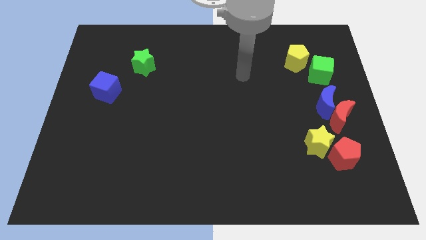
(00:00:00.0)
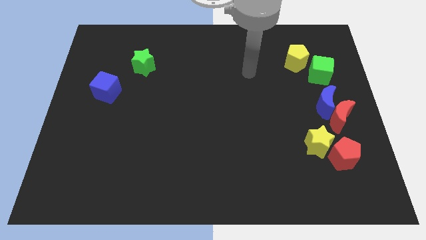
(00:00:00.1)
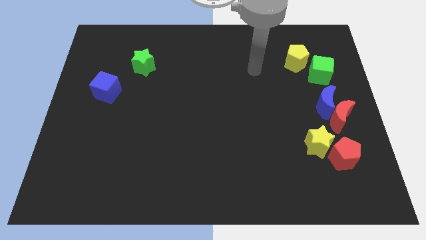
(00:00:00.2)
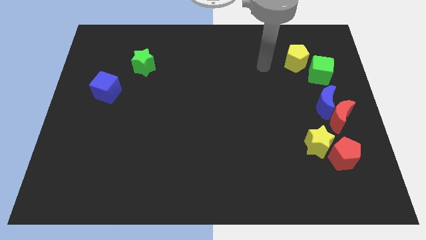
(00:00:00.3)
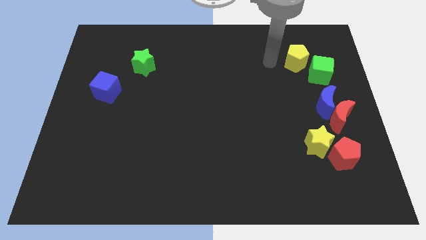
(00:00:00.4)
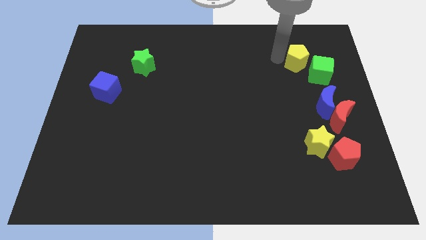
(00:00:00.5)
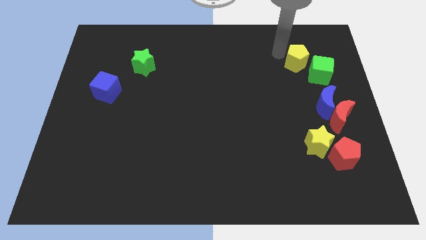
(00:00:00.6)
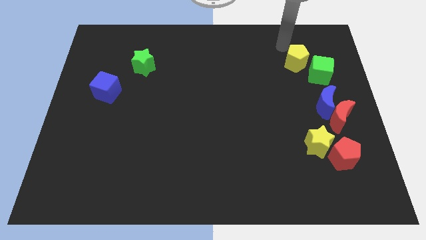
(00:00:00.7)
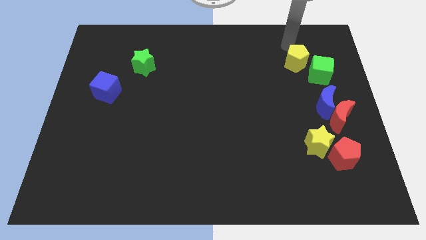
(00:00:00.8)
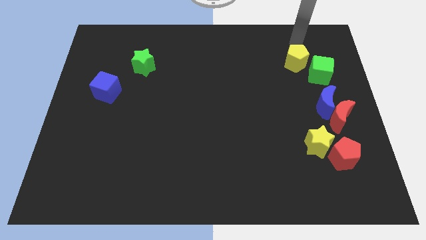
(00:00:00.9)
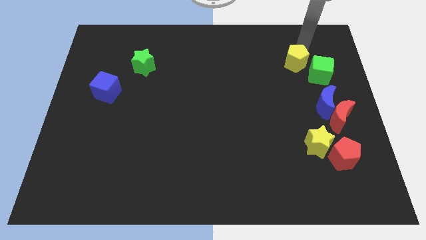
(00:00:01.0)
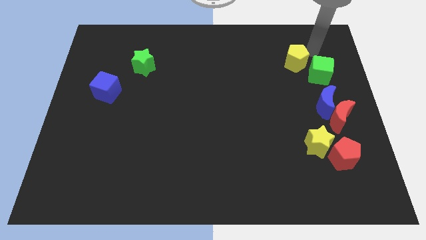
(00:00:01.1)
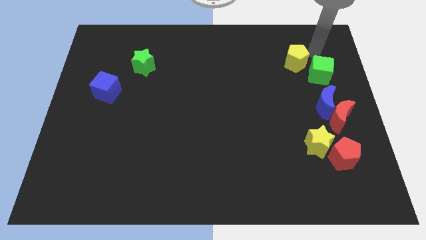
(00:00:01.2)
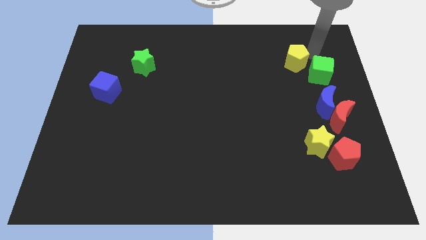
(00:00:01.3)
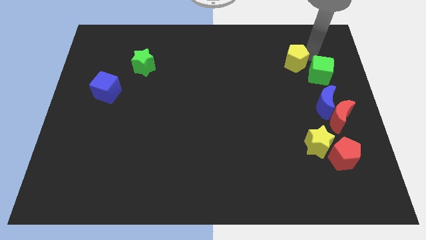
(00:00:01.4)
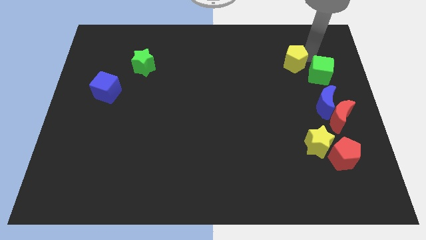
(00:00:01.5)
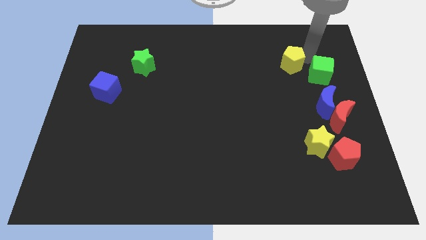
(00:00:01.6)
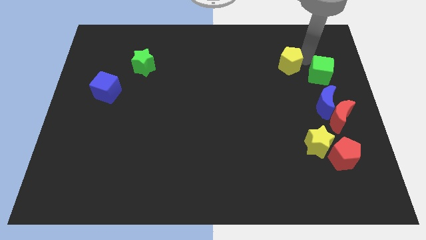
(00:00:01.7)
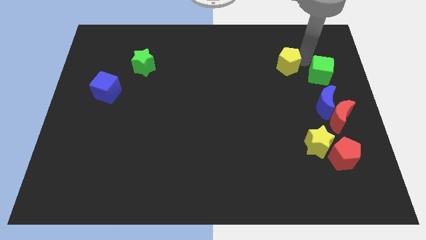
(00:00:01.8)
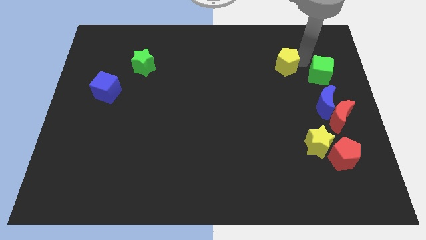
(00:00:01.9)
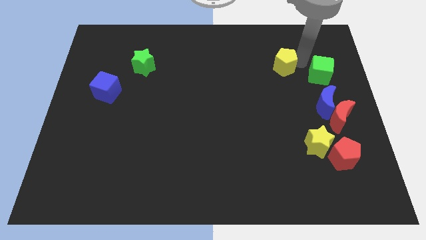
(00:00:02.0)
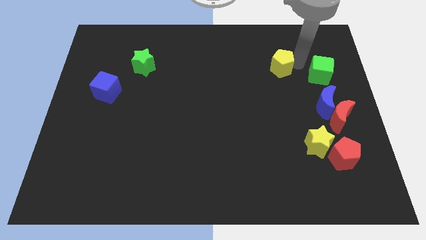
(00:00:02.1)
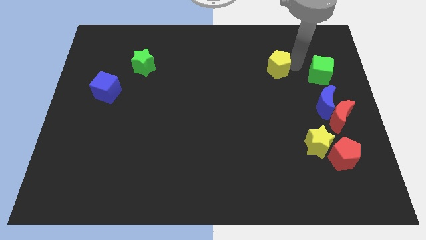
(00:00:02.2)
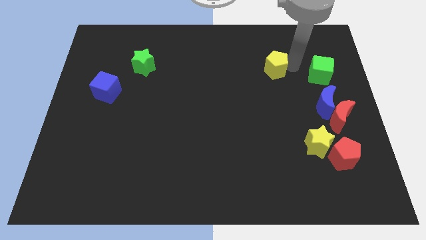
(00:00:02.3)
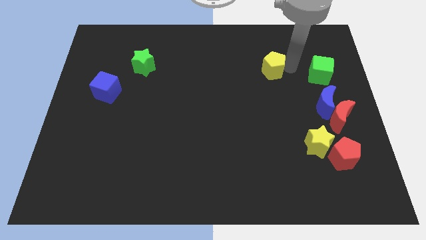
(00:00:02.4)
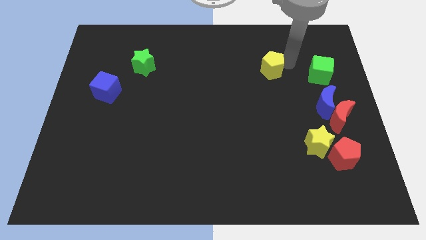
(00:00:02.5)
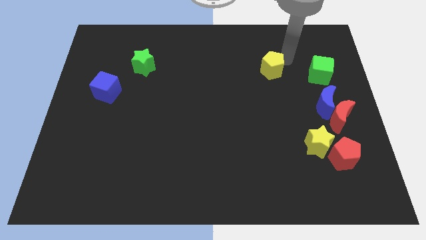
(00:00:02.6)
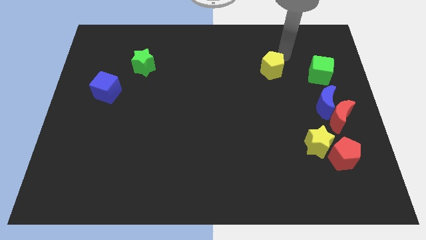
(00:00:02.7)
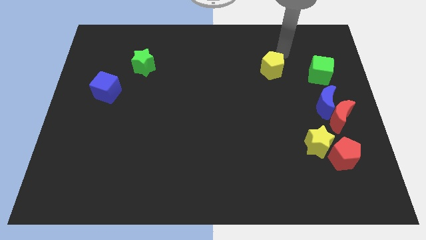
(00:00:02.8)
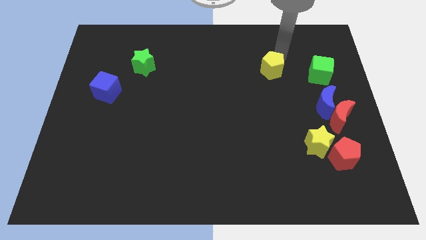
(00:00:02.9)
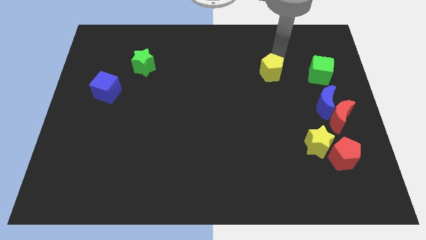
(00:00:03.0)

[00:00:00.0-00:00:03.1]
move the yellow pentagon down and then to the left slightly

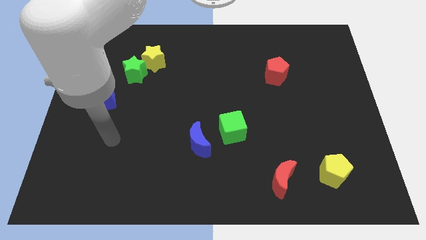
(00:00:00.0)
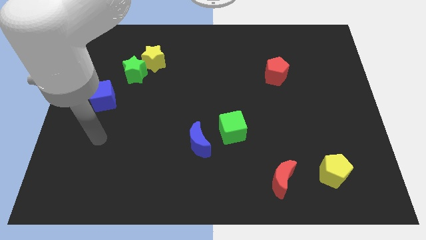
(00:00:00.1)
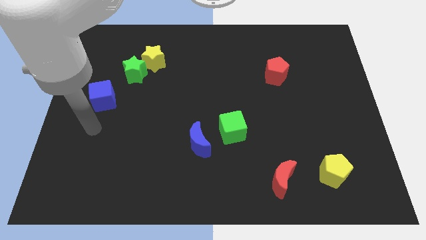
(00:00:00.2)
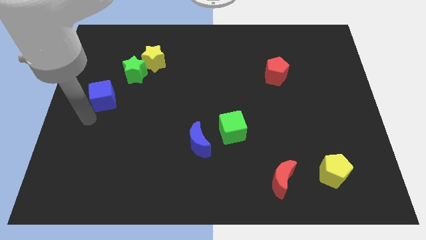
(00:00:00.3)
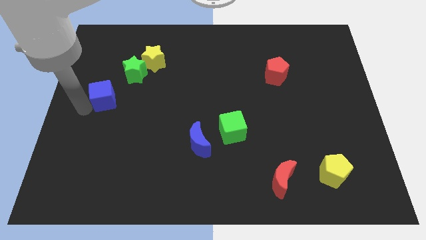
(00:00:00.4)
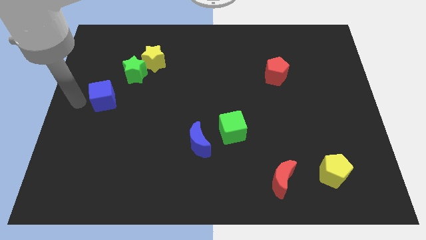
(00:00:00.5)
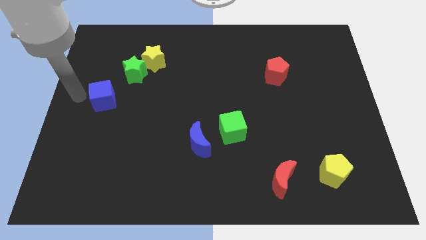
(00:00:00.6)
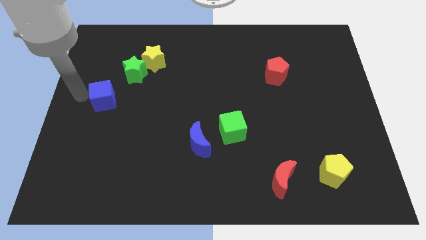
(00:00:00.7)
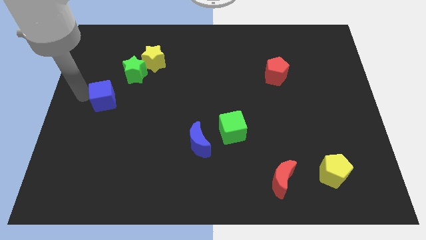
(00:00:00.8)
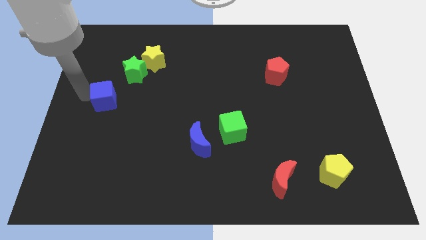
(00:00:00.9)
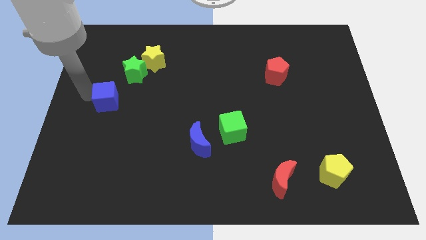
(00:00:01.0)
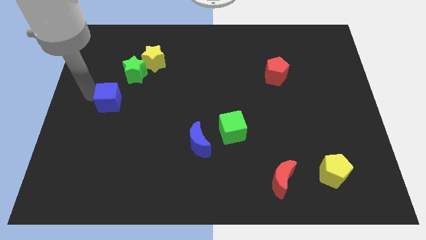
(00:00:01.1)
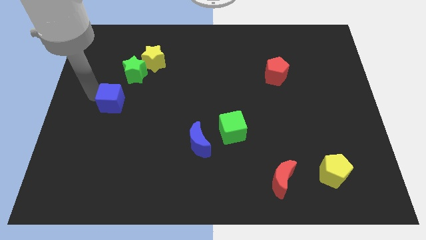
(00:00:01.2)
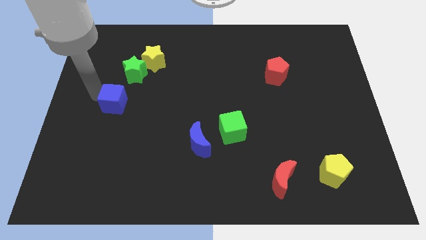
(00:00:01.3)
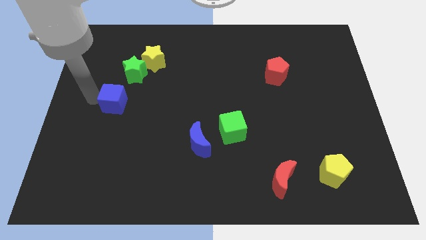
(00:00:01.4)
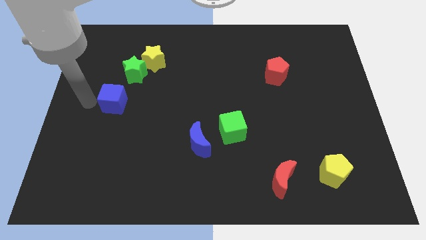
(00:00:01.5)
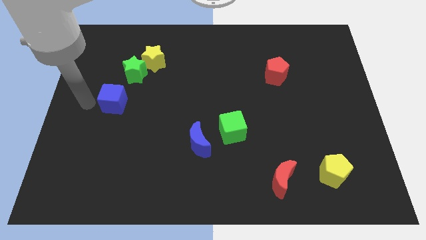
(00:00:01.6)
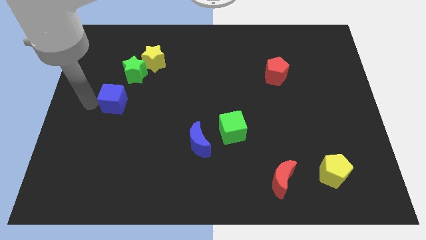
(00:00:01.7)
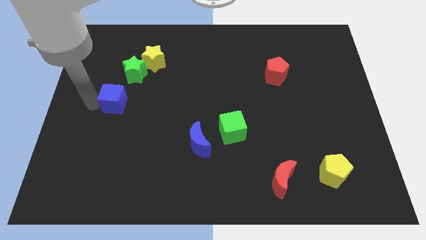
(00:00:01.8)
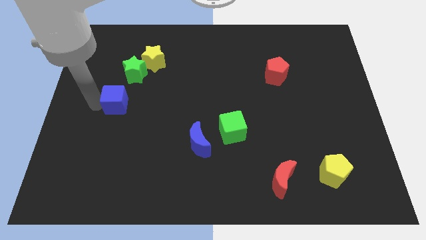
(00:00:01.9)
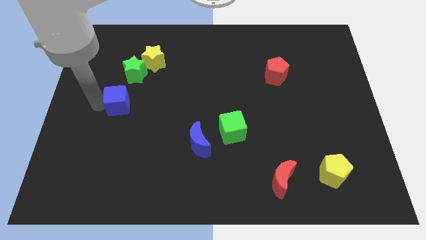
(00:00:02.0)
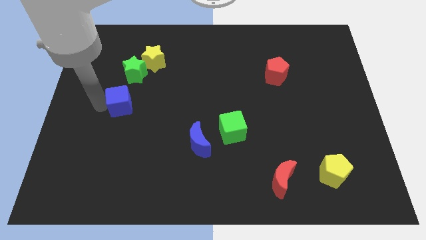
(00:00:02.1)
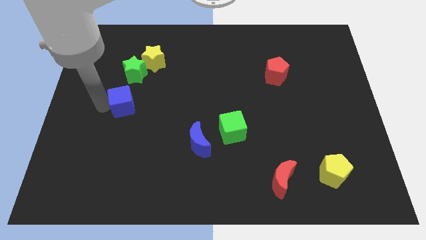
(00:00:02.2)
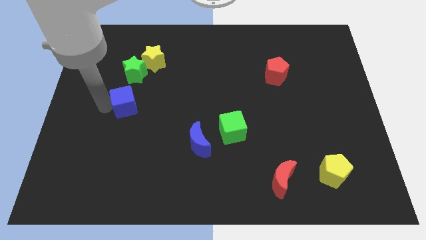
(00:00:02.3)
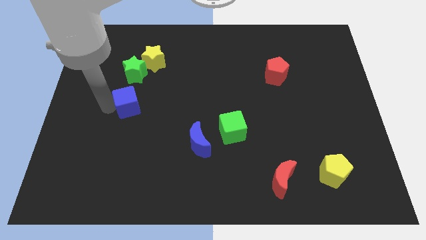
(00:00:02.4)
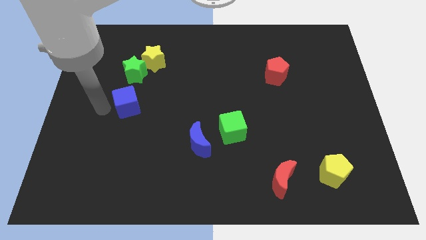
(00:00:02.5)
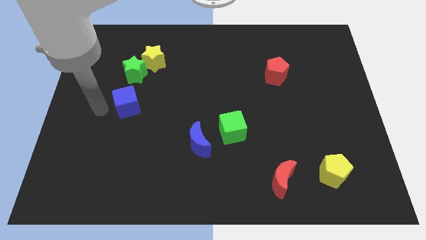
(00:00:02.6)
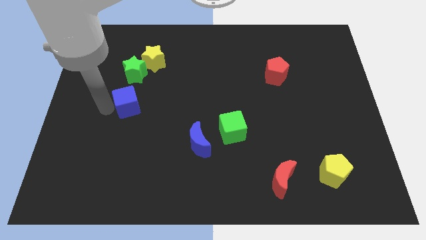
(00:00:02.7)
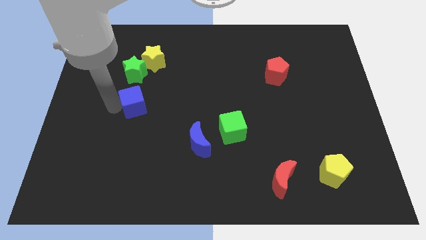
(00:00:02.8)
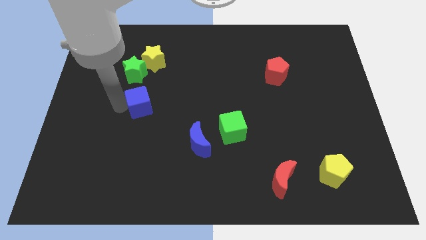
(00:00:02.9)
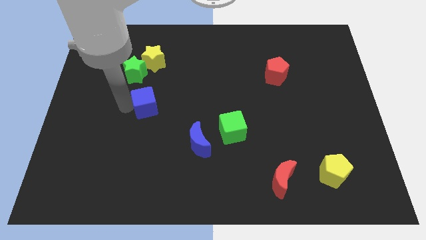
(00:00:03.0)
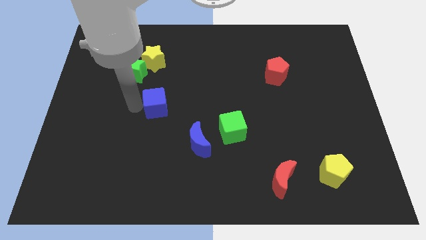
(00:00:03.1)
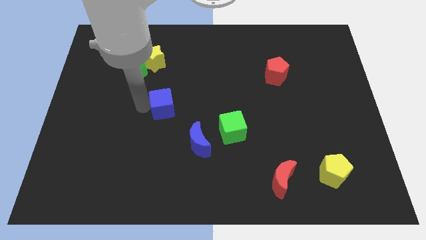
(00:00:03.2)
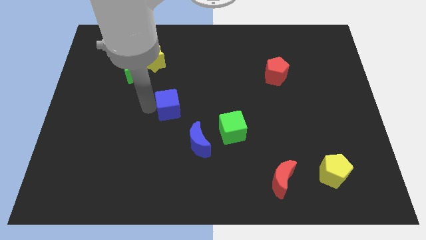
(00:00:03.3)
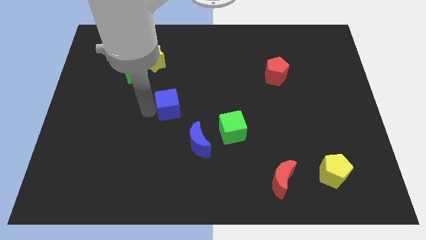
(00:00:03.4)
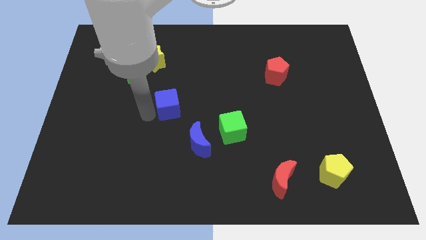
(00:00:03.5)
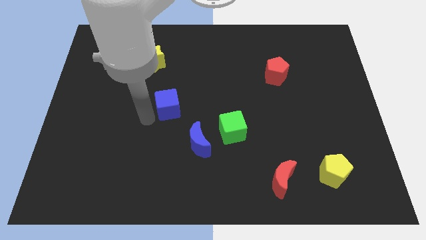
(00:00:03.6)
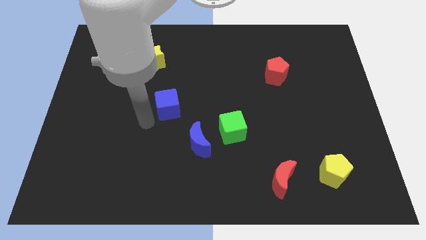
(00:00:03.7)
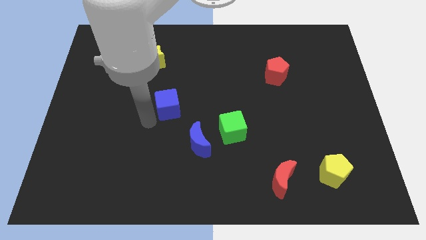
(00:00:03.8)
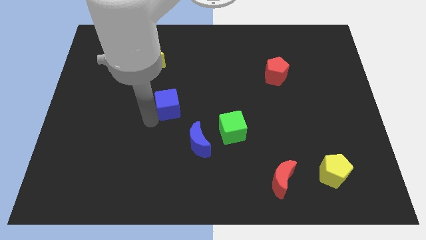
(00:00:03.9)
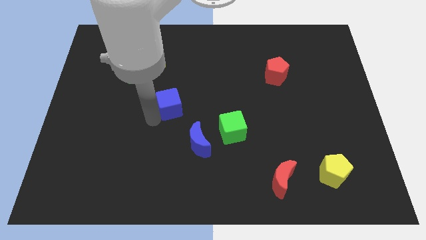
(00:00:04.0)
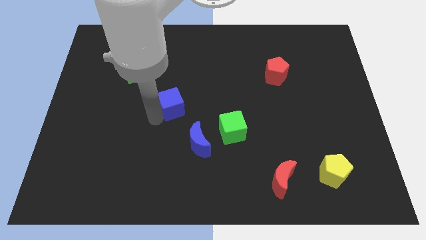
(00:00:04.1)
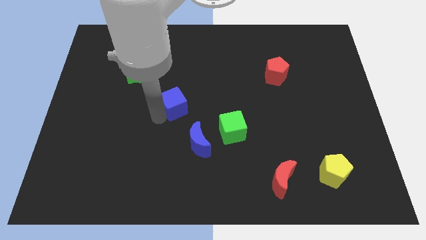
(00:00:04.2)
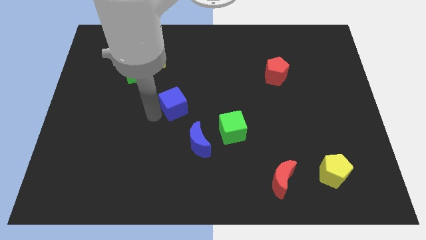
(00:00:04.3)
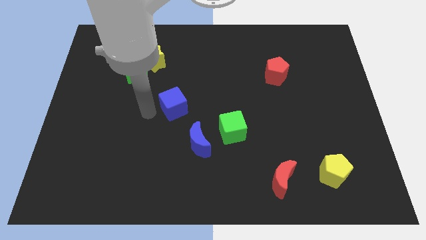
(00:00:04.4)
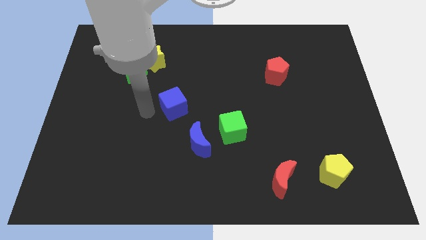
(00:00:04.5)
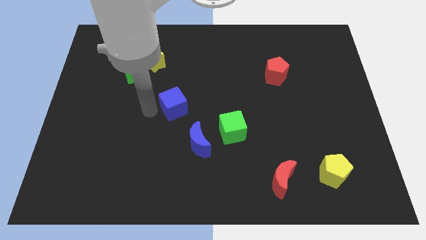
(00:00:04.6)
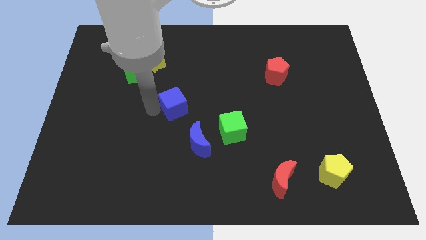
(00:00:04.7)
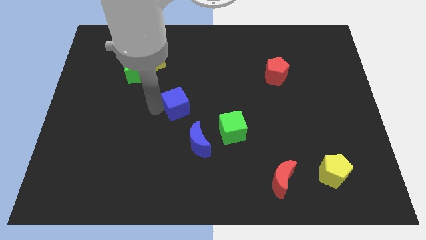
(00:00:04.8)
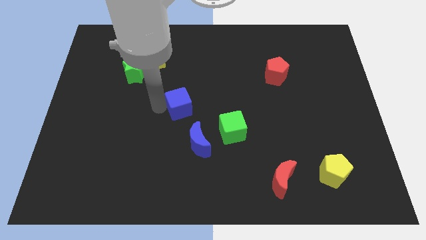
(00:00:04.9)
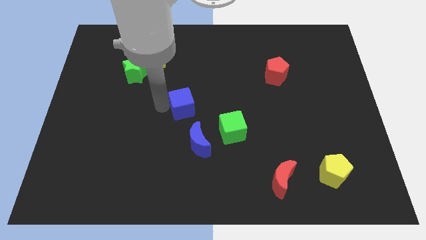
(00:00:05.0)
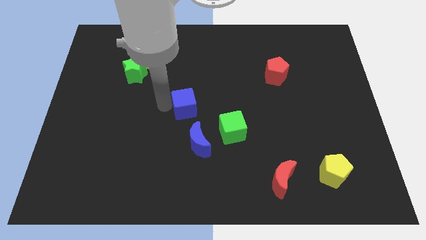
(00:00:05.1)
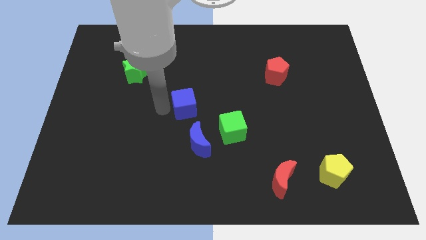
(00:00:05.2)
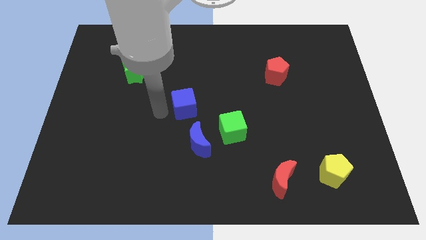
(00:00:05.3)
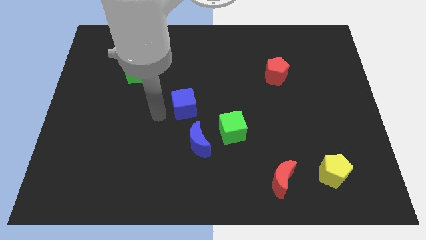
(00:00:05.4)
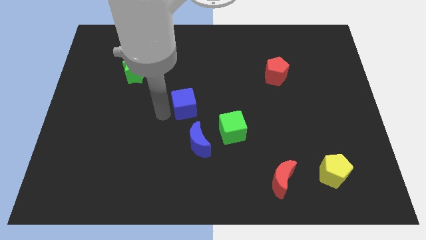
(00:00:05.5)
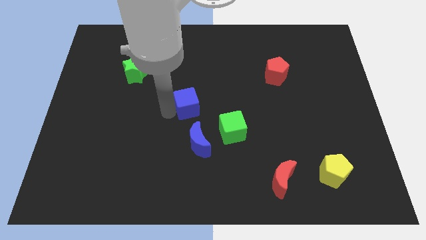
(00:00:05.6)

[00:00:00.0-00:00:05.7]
move the blue cube to the right
